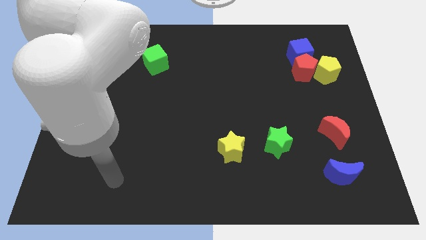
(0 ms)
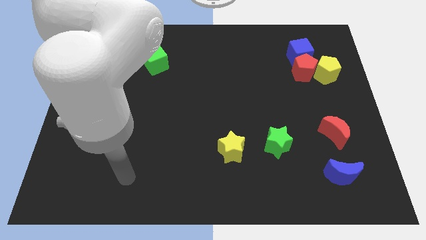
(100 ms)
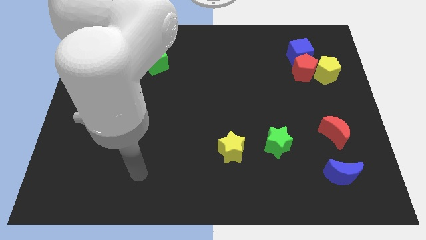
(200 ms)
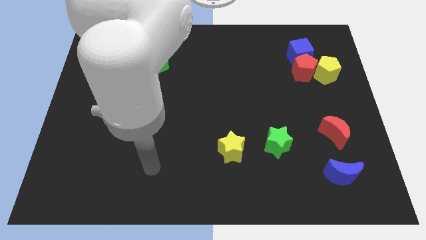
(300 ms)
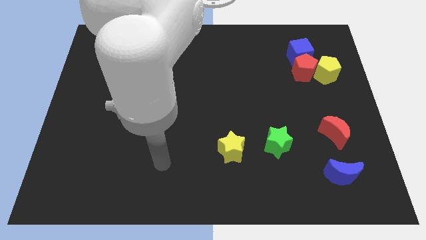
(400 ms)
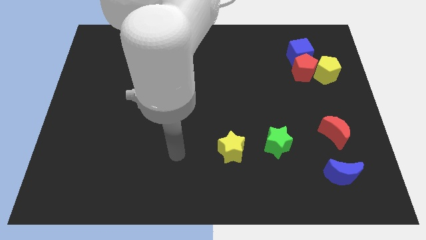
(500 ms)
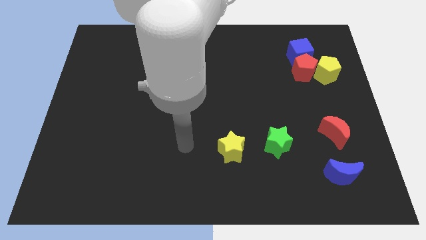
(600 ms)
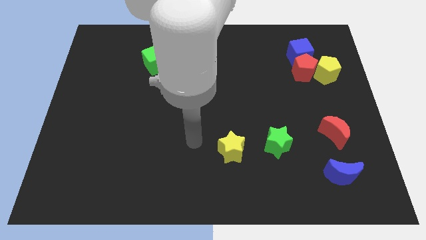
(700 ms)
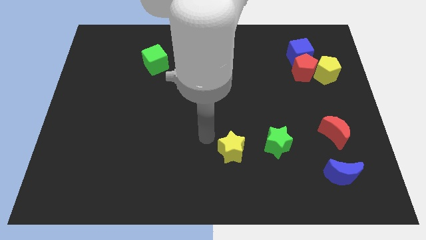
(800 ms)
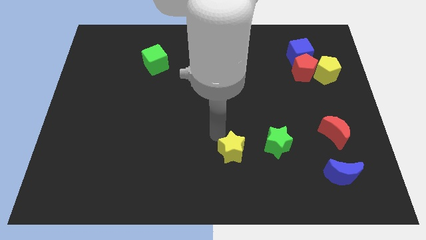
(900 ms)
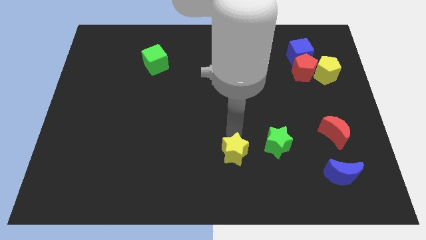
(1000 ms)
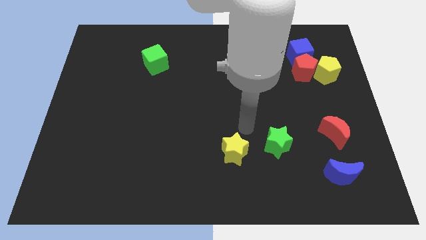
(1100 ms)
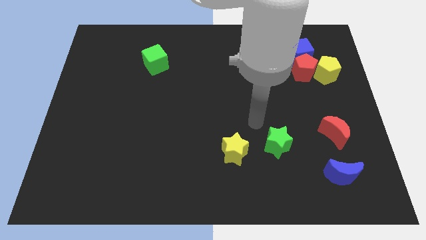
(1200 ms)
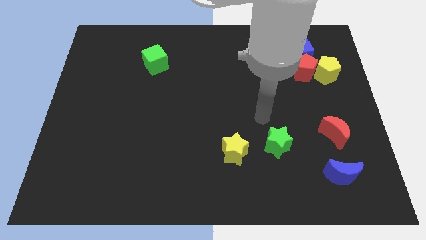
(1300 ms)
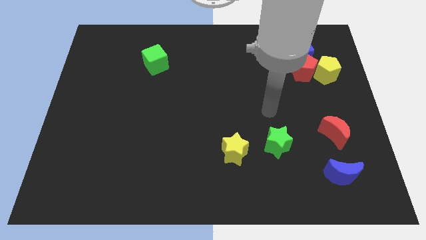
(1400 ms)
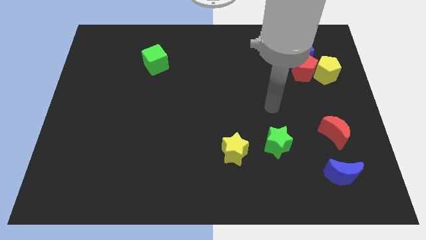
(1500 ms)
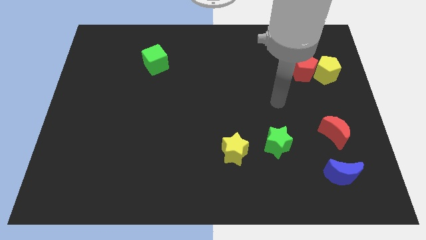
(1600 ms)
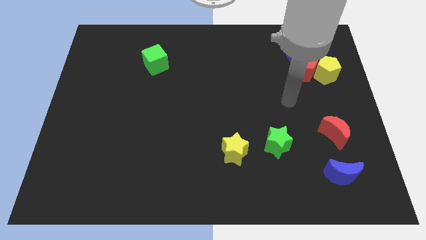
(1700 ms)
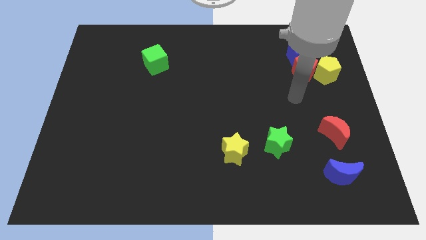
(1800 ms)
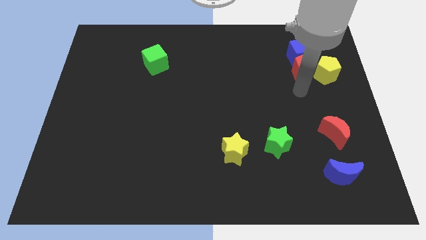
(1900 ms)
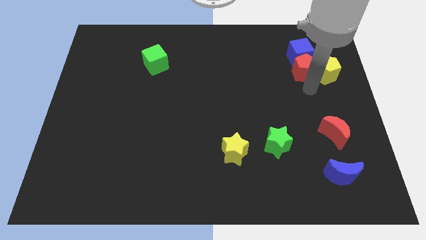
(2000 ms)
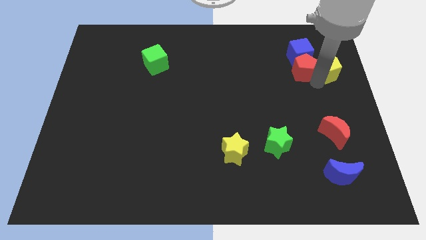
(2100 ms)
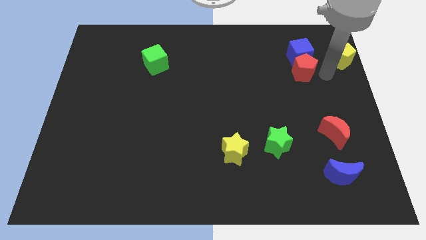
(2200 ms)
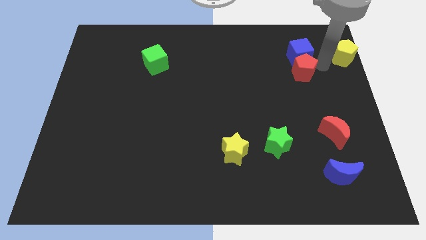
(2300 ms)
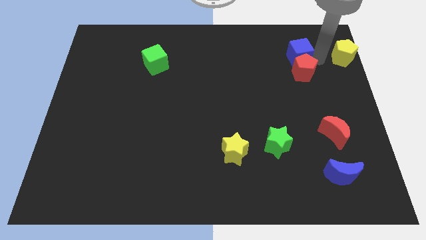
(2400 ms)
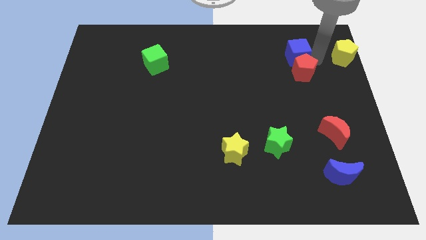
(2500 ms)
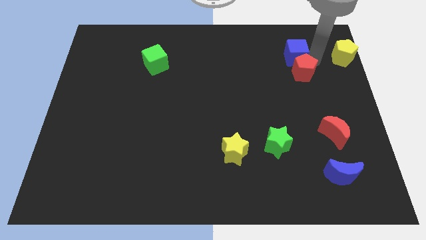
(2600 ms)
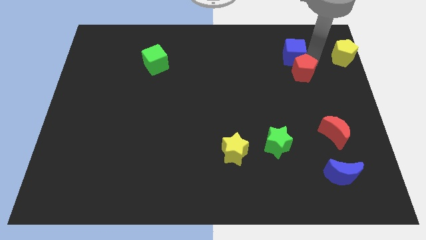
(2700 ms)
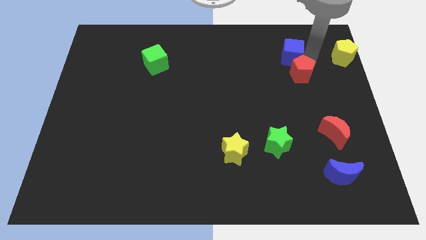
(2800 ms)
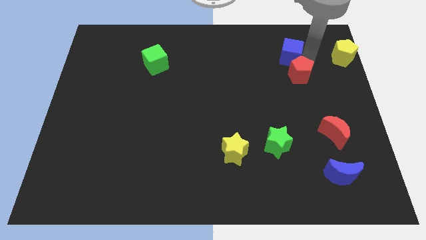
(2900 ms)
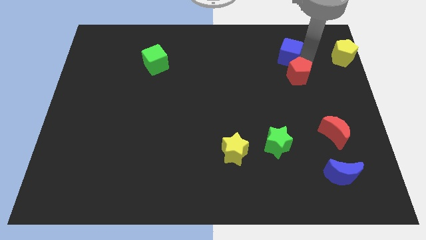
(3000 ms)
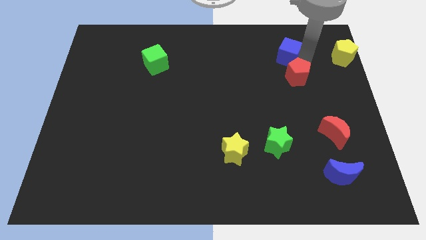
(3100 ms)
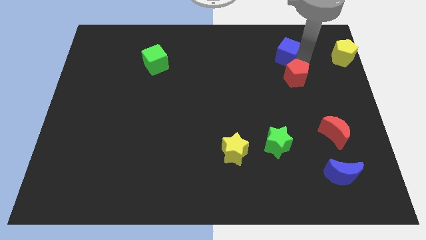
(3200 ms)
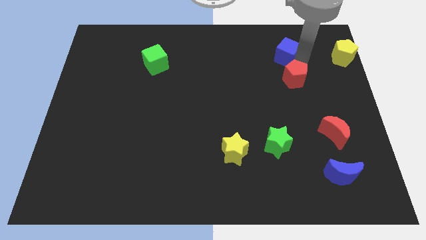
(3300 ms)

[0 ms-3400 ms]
pull the red pentagon apart from the blue cube and yellow pentagon

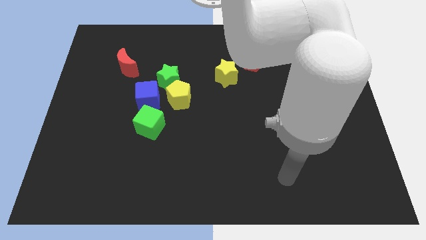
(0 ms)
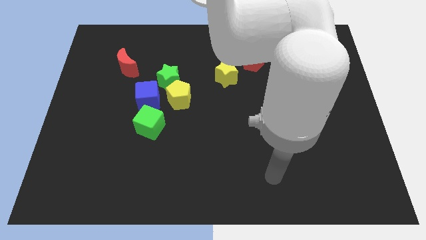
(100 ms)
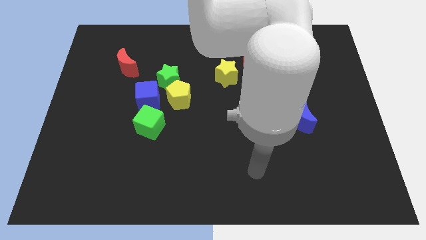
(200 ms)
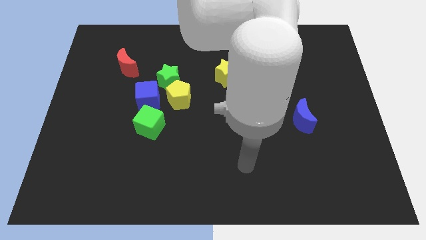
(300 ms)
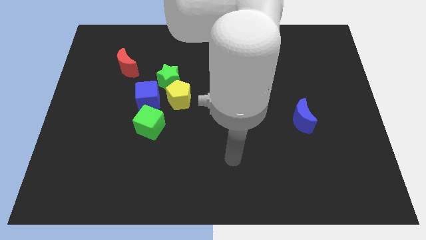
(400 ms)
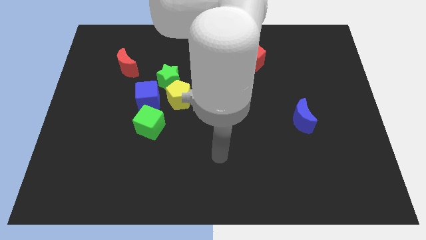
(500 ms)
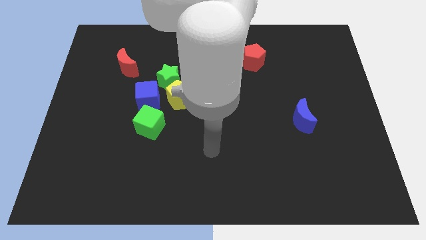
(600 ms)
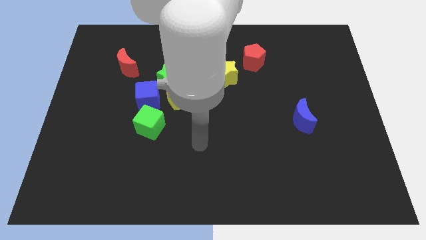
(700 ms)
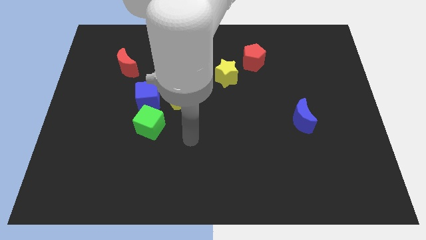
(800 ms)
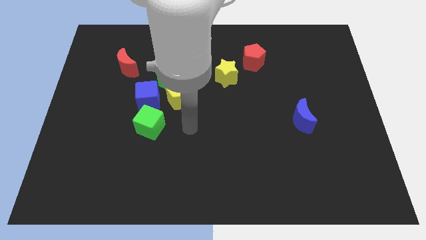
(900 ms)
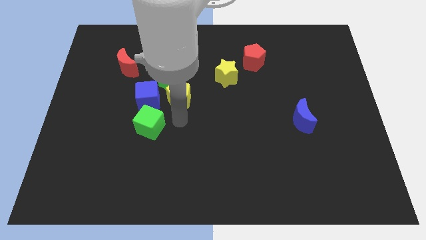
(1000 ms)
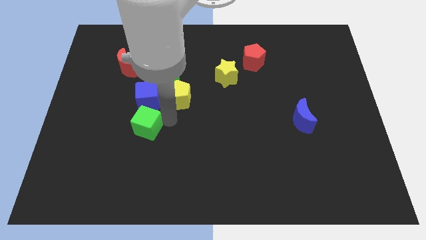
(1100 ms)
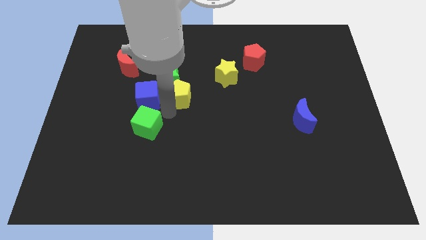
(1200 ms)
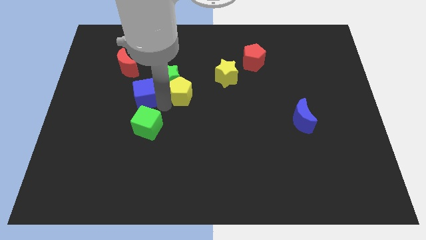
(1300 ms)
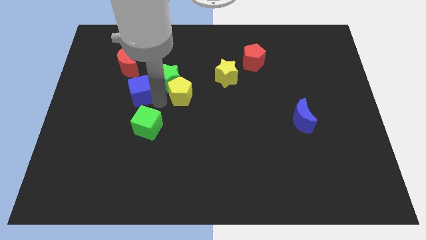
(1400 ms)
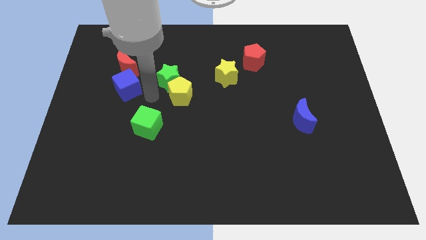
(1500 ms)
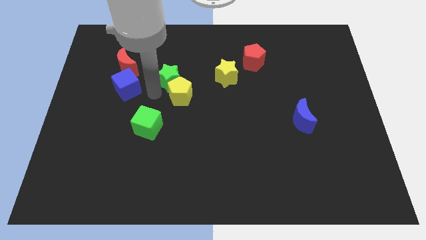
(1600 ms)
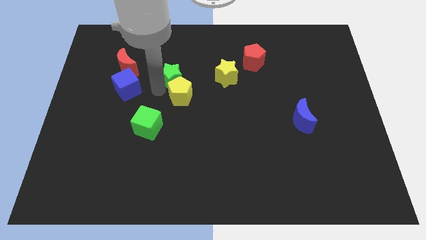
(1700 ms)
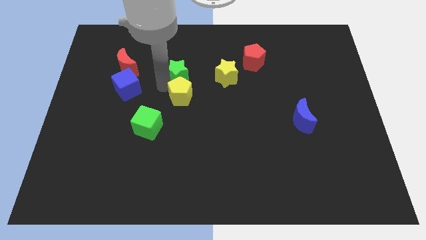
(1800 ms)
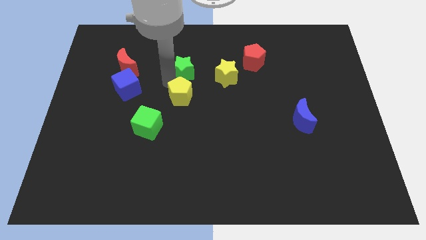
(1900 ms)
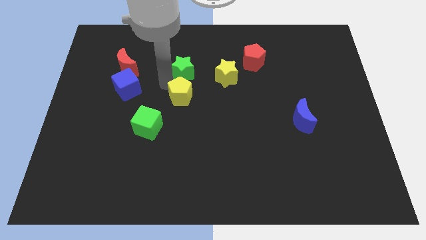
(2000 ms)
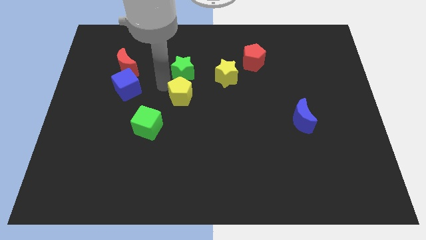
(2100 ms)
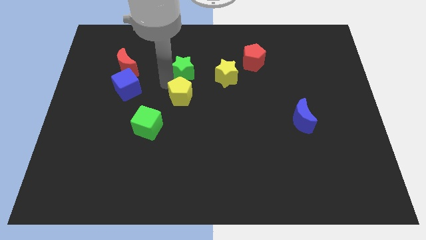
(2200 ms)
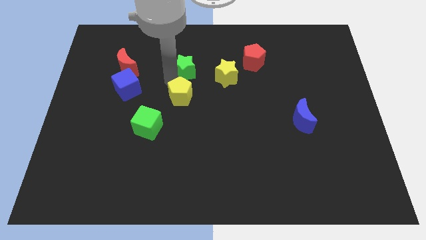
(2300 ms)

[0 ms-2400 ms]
pull the green star apart from the yellow pentagon and blue cube

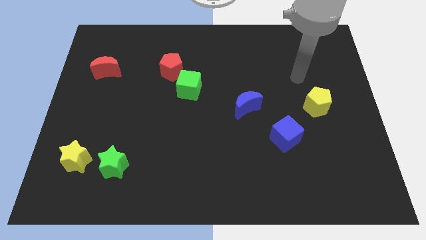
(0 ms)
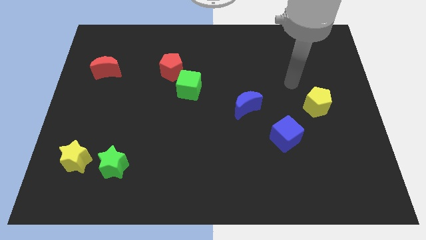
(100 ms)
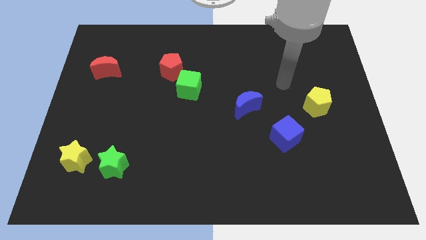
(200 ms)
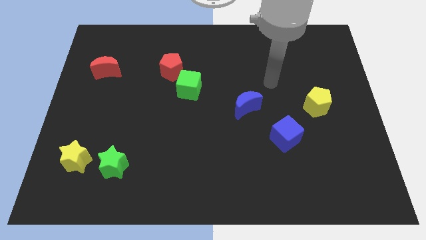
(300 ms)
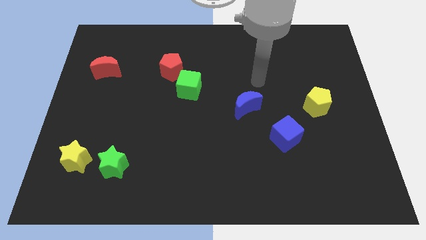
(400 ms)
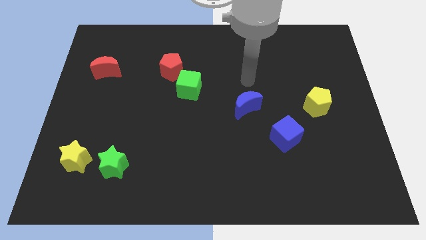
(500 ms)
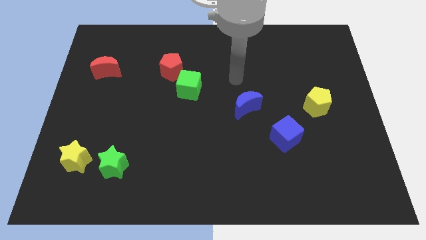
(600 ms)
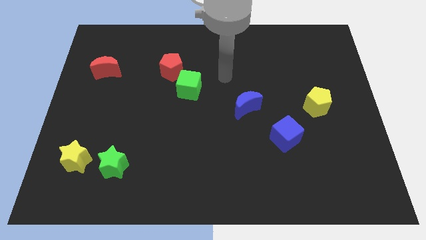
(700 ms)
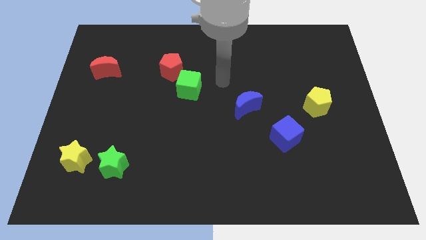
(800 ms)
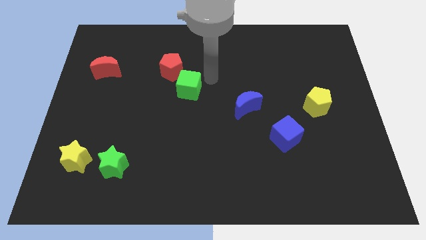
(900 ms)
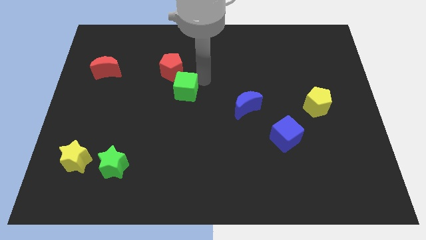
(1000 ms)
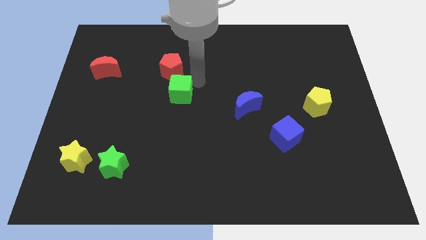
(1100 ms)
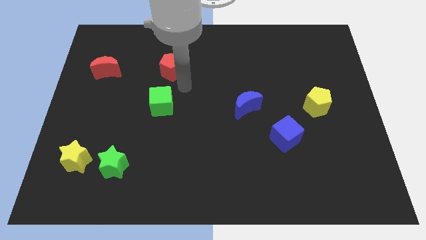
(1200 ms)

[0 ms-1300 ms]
separate the red pentagon from the green cube

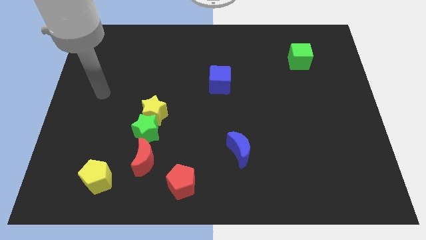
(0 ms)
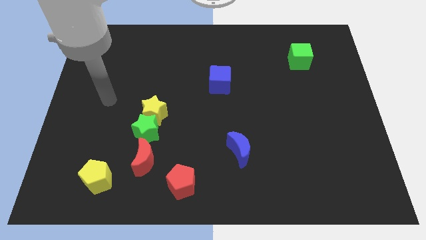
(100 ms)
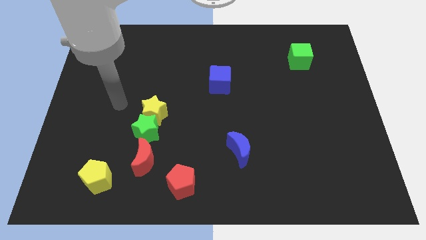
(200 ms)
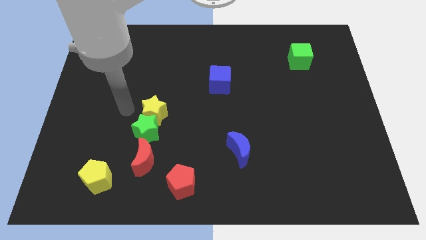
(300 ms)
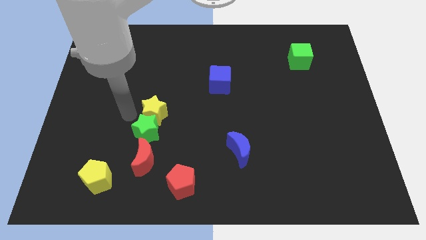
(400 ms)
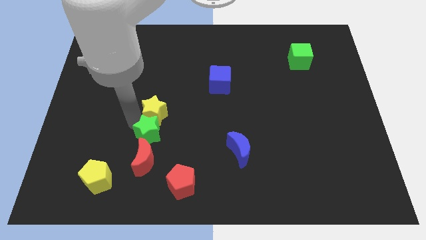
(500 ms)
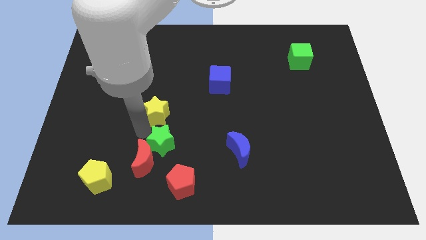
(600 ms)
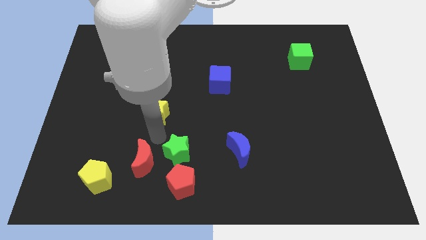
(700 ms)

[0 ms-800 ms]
pull the yellow star apart from the green star

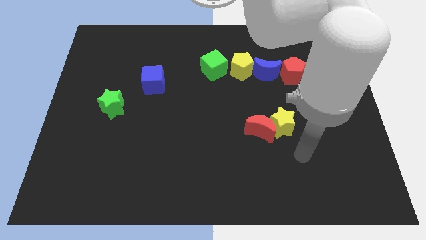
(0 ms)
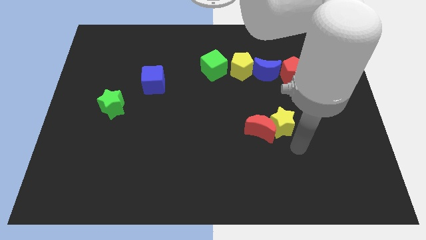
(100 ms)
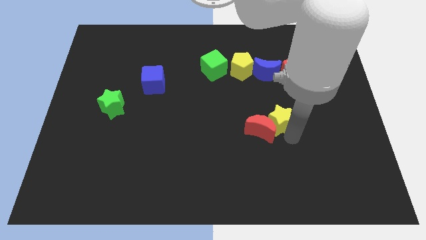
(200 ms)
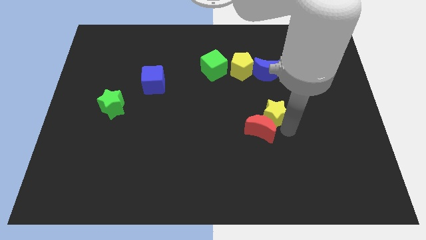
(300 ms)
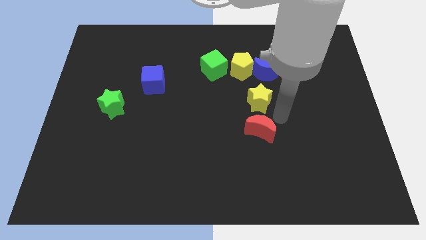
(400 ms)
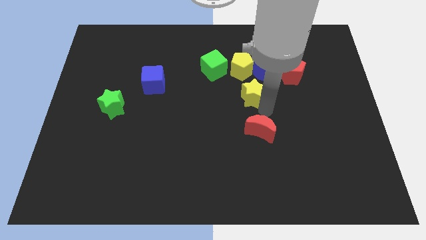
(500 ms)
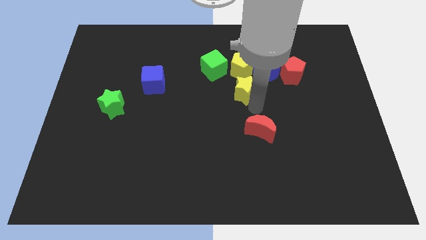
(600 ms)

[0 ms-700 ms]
pull the red moon apart from the yellow star

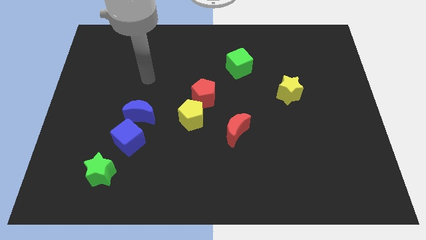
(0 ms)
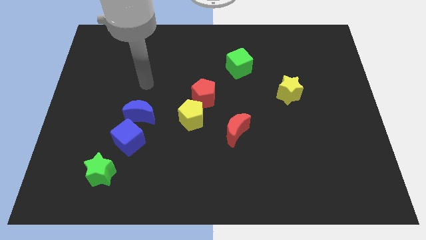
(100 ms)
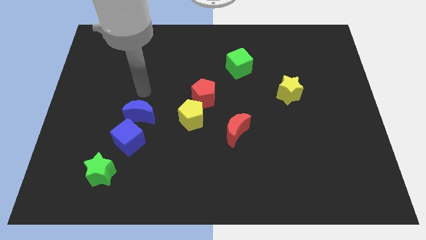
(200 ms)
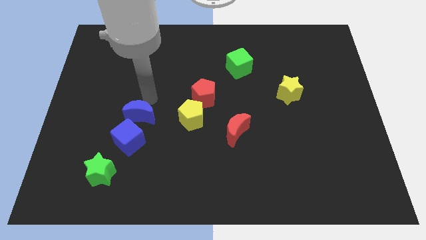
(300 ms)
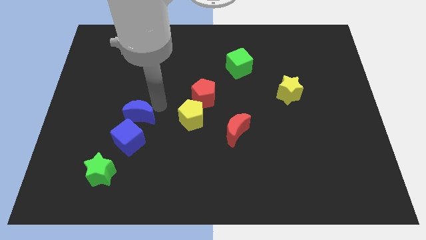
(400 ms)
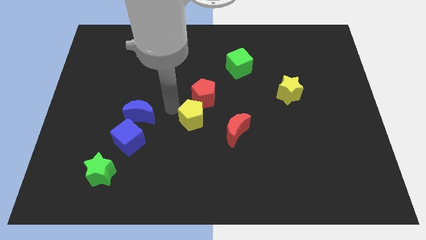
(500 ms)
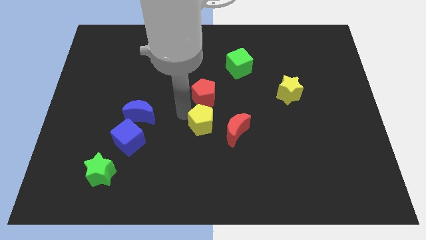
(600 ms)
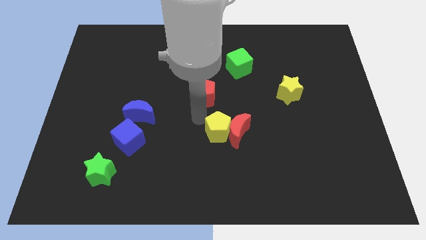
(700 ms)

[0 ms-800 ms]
separate the red pentagon from the yellow pentagon
